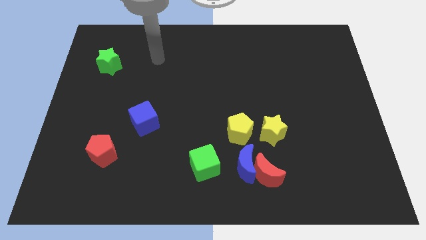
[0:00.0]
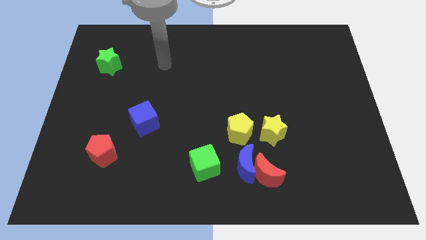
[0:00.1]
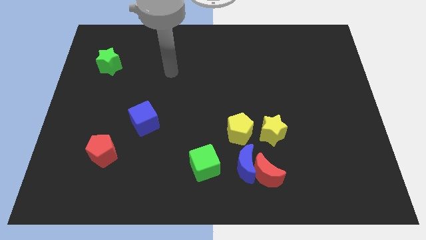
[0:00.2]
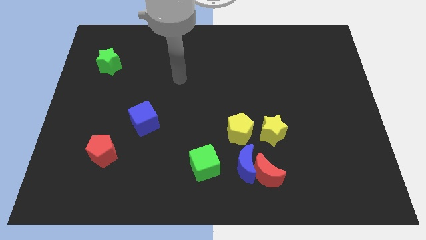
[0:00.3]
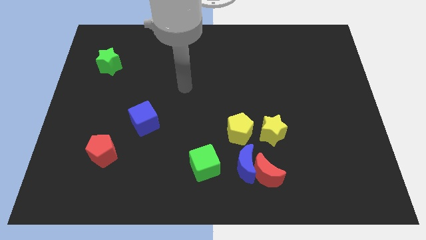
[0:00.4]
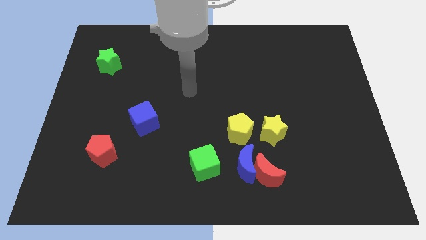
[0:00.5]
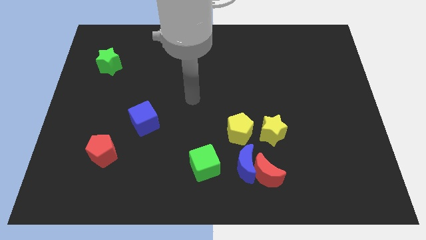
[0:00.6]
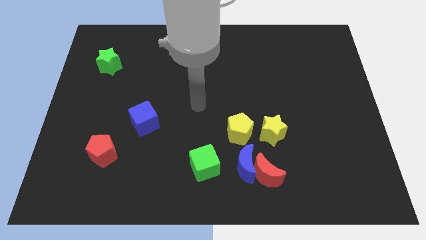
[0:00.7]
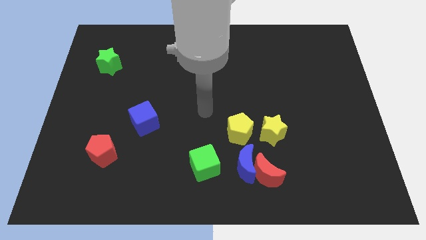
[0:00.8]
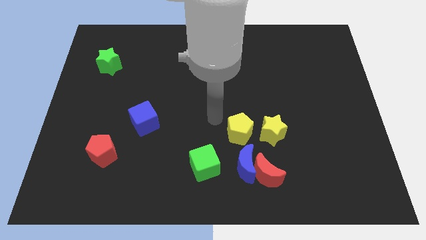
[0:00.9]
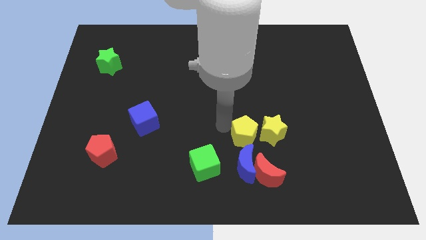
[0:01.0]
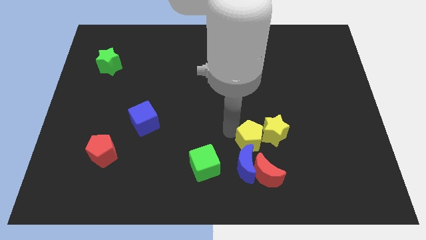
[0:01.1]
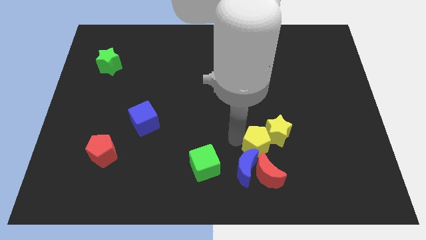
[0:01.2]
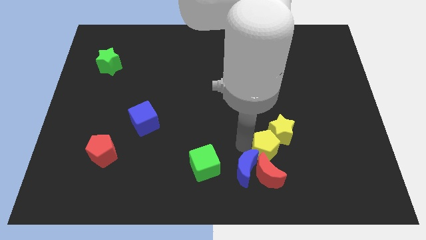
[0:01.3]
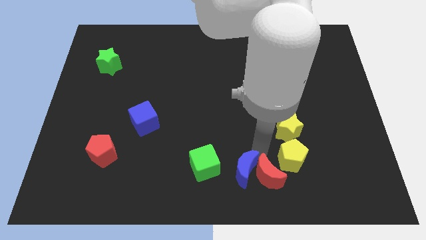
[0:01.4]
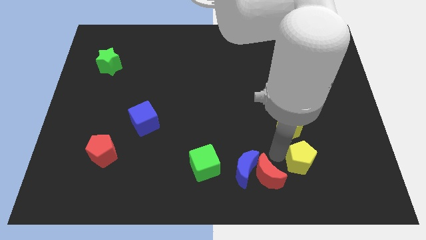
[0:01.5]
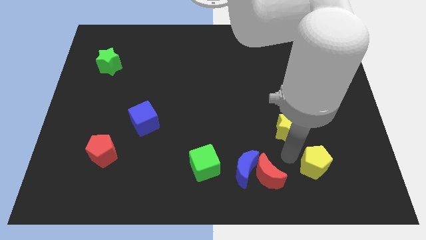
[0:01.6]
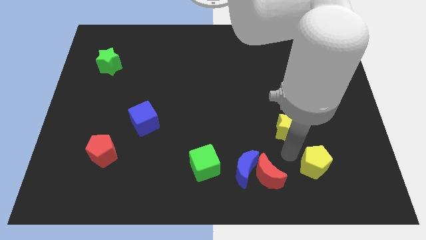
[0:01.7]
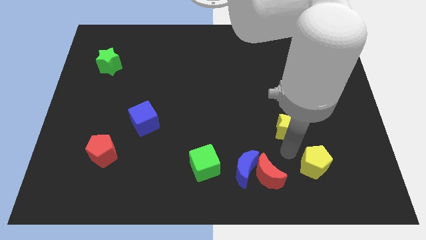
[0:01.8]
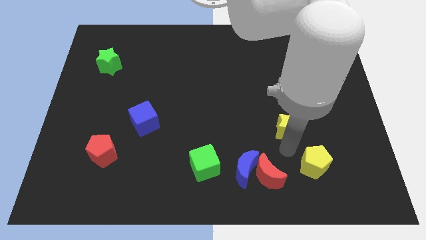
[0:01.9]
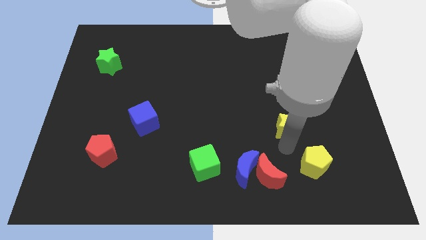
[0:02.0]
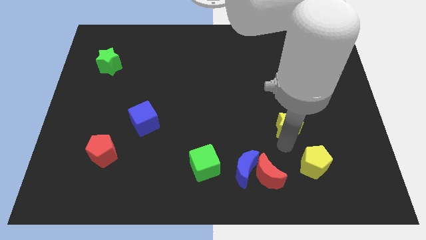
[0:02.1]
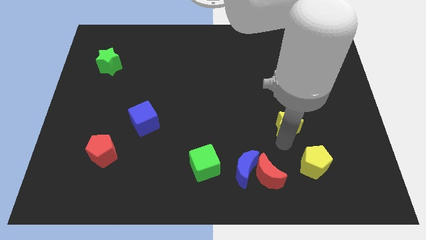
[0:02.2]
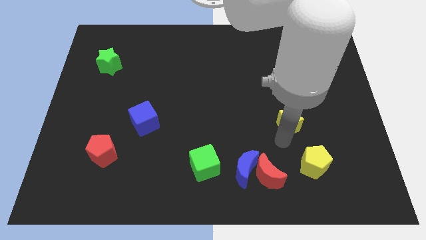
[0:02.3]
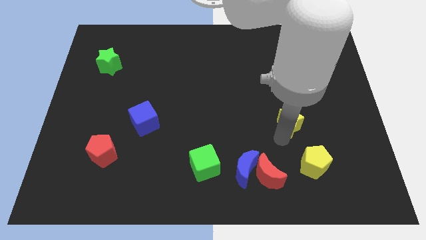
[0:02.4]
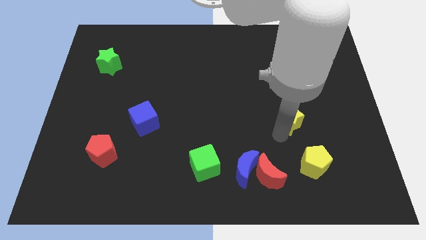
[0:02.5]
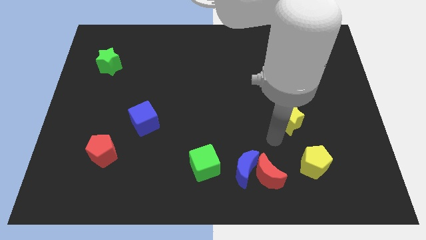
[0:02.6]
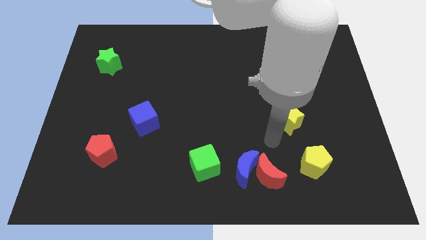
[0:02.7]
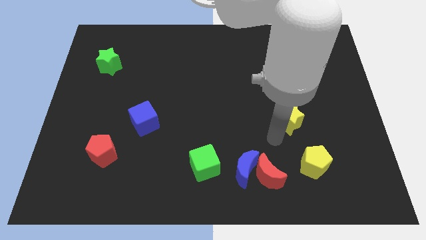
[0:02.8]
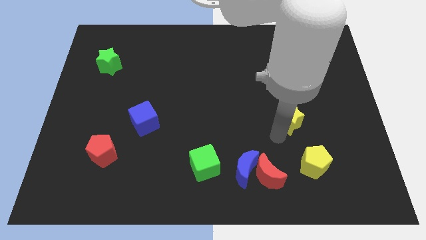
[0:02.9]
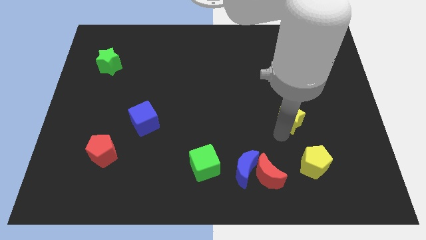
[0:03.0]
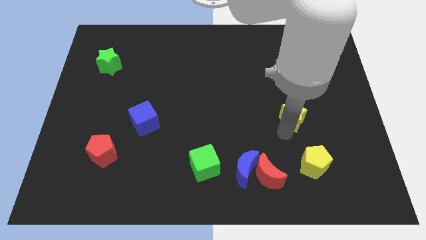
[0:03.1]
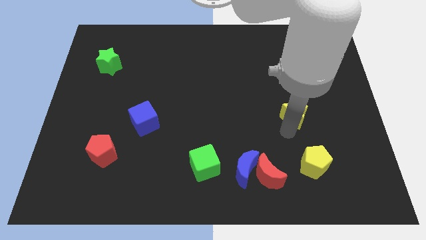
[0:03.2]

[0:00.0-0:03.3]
slide the yellow star up and then to the right a little bit

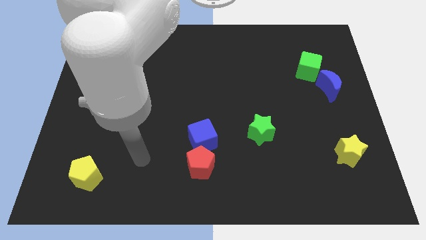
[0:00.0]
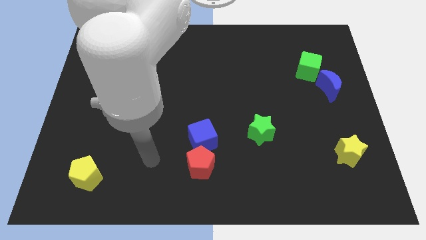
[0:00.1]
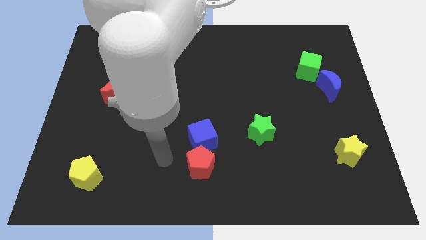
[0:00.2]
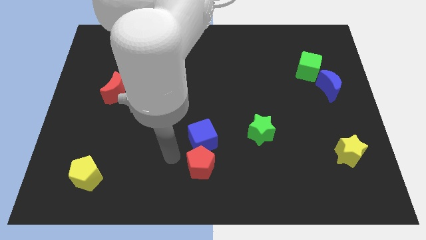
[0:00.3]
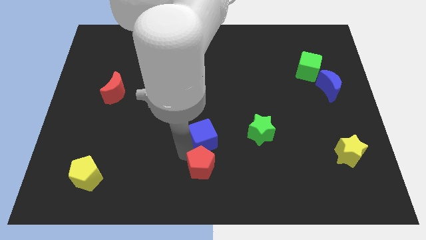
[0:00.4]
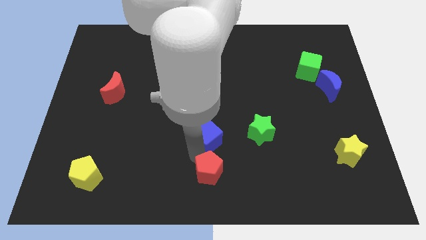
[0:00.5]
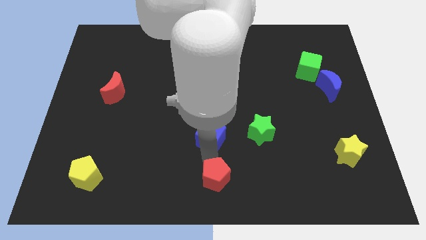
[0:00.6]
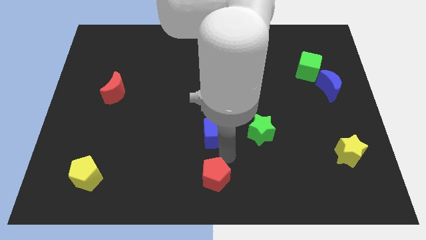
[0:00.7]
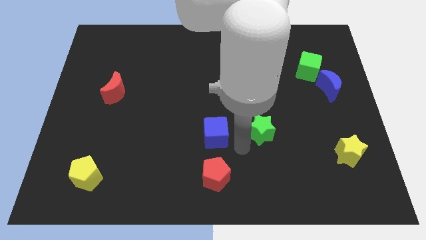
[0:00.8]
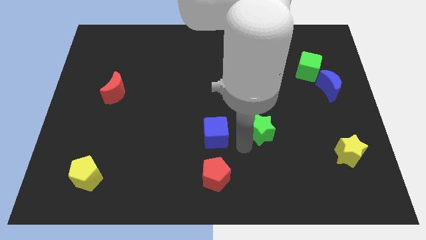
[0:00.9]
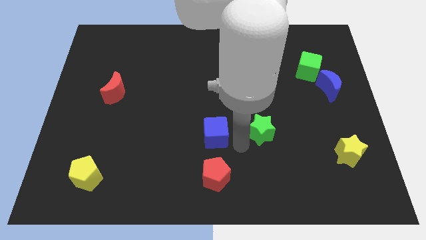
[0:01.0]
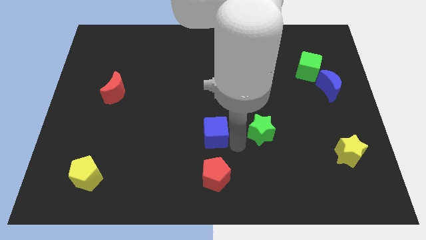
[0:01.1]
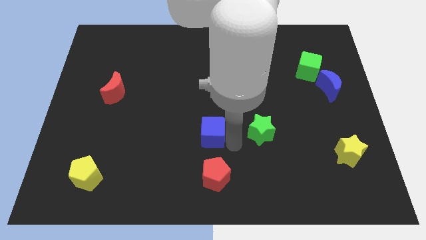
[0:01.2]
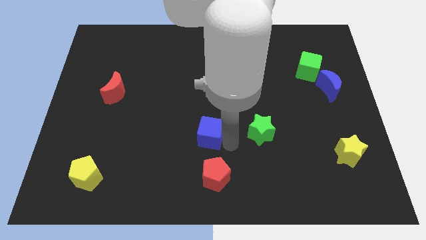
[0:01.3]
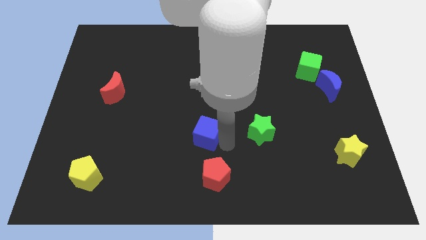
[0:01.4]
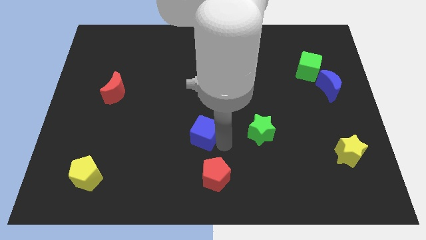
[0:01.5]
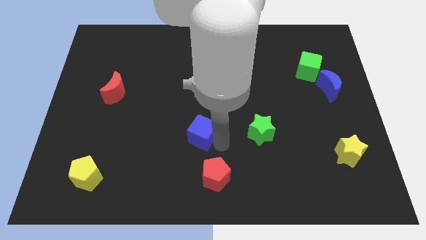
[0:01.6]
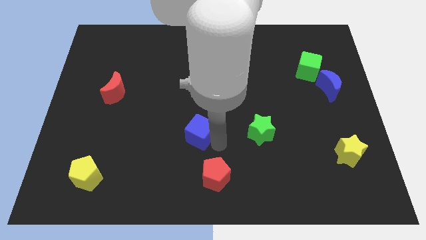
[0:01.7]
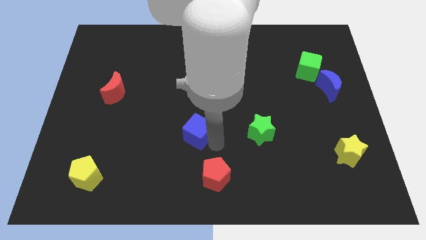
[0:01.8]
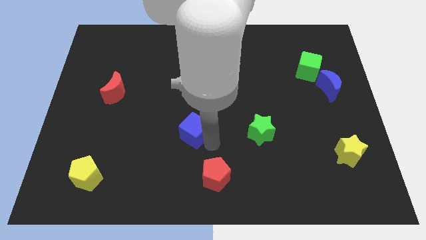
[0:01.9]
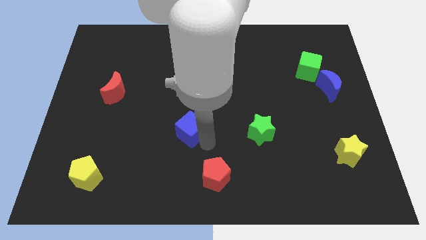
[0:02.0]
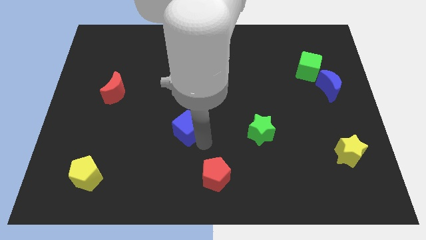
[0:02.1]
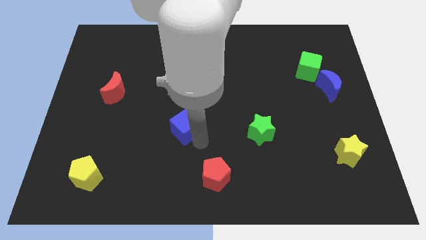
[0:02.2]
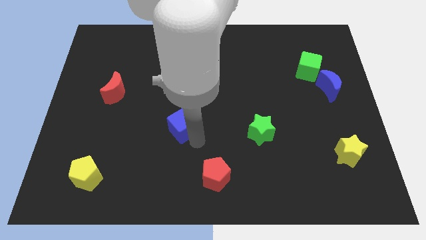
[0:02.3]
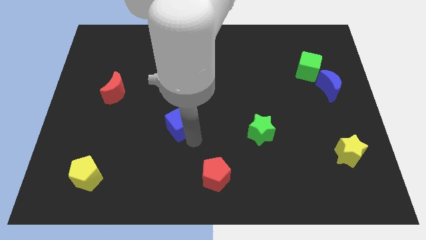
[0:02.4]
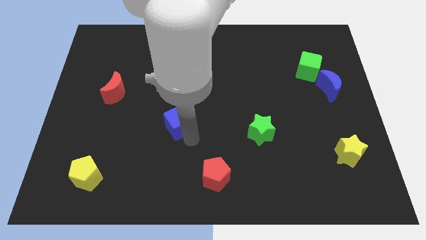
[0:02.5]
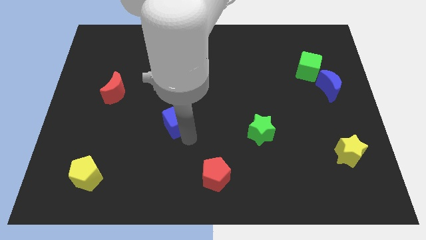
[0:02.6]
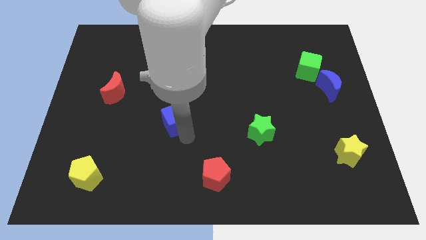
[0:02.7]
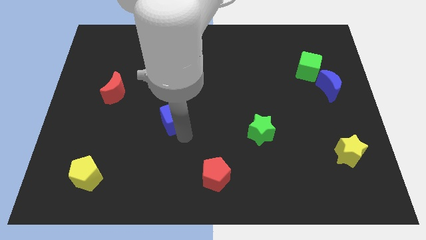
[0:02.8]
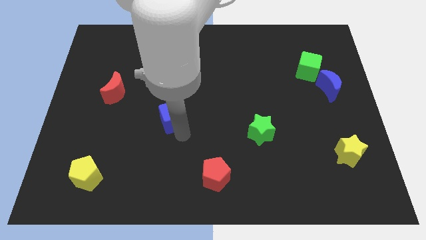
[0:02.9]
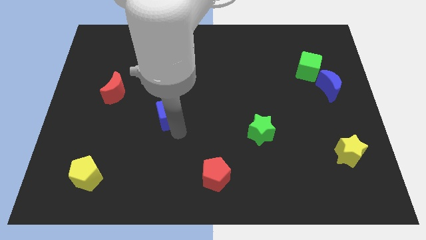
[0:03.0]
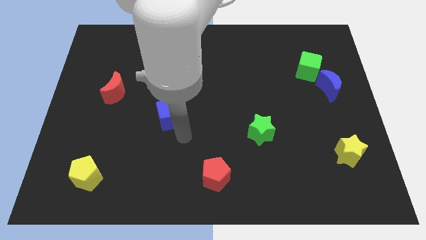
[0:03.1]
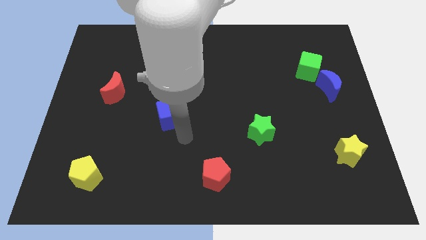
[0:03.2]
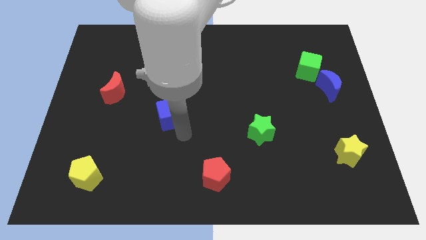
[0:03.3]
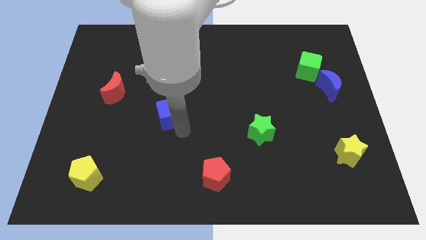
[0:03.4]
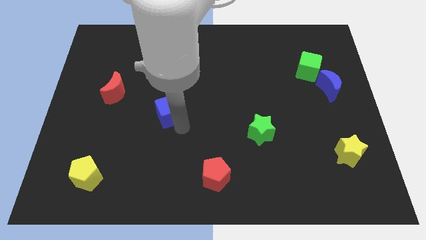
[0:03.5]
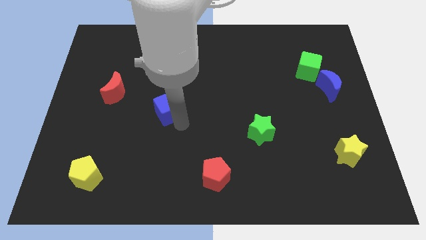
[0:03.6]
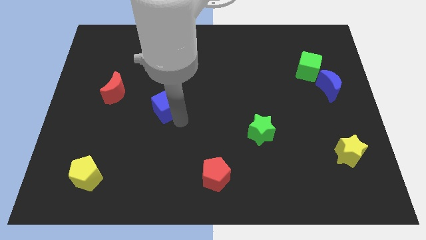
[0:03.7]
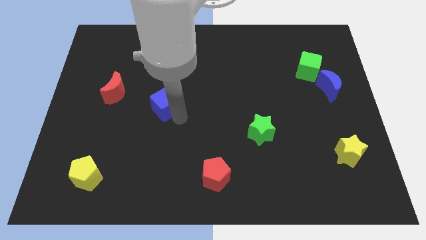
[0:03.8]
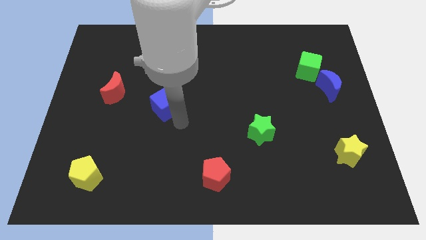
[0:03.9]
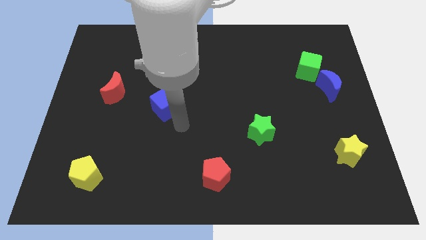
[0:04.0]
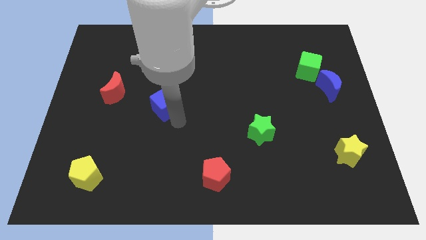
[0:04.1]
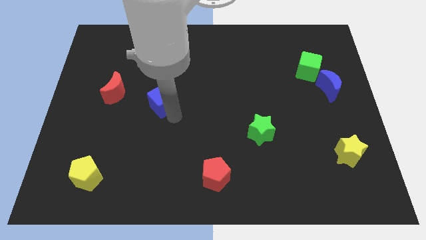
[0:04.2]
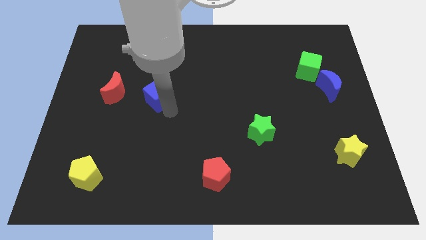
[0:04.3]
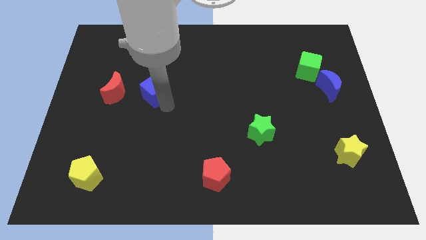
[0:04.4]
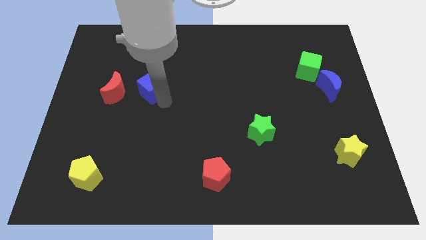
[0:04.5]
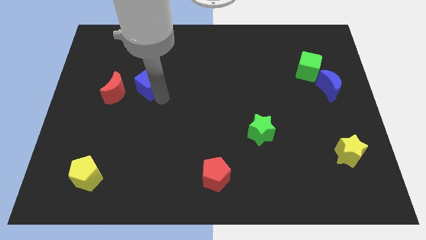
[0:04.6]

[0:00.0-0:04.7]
slide the blue cube up and to the left diagonally
